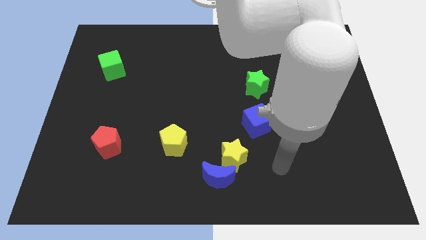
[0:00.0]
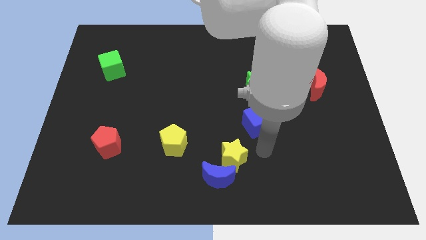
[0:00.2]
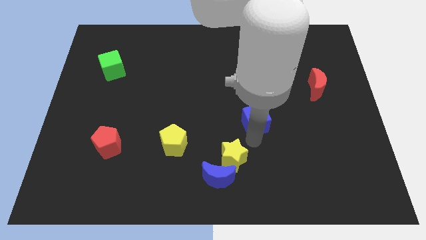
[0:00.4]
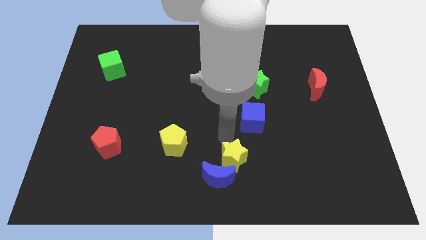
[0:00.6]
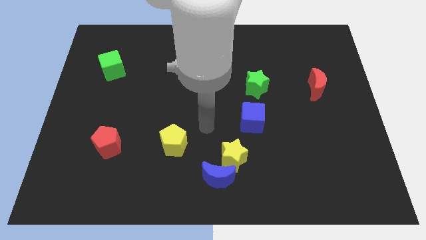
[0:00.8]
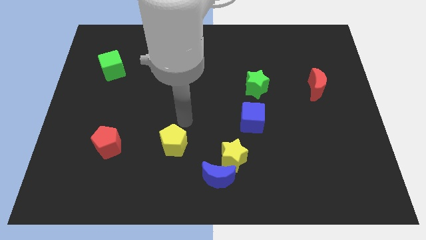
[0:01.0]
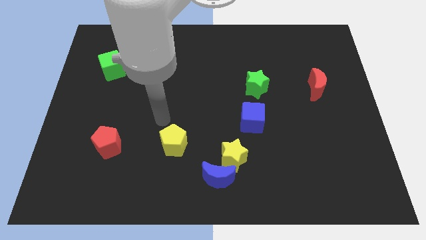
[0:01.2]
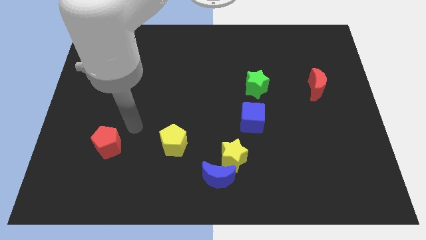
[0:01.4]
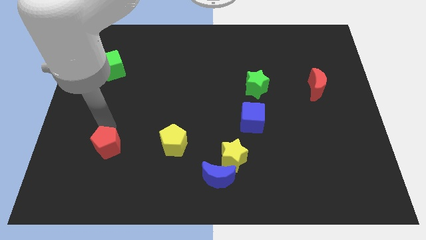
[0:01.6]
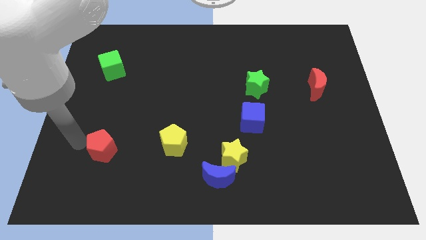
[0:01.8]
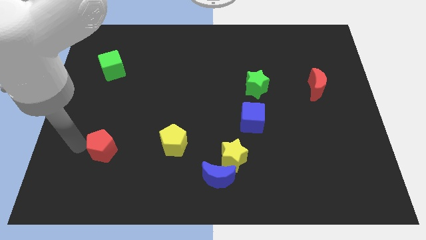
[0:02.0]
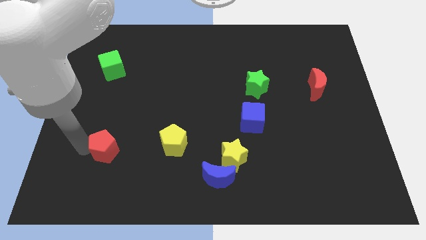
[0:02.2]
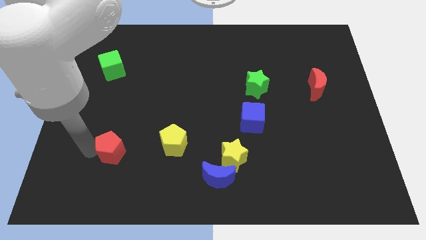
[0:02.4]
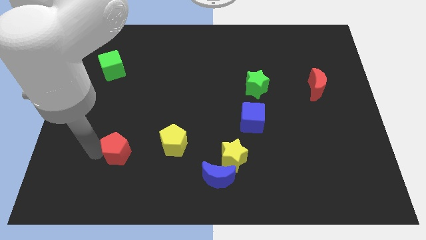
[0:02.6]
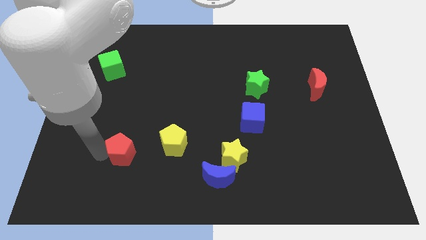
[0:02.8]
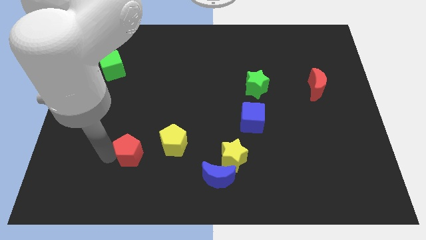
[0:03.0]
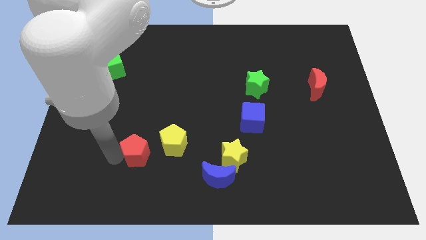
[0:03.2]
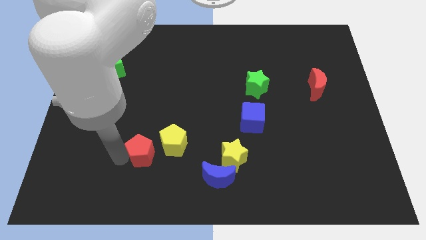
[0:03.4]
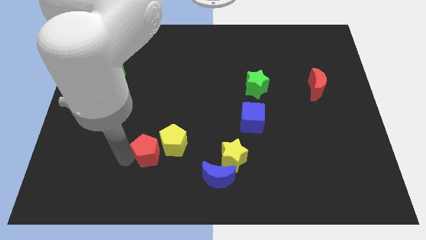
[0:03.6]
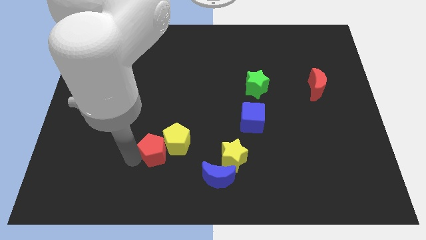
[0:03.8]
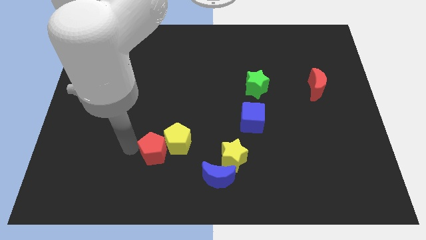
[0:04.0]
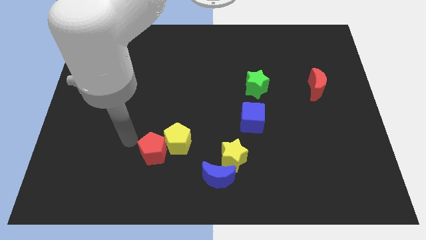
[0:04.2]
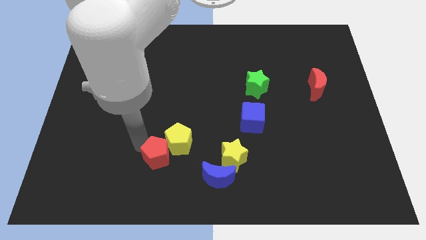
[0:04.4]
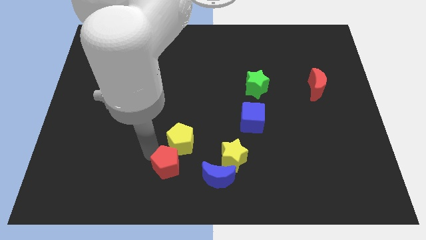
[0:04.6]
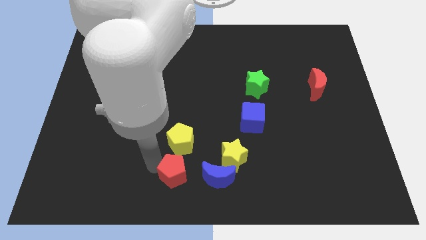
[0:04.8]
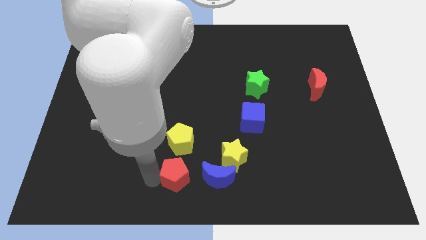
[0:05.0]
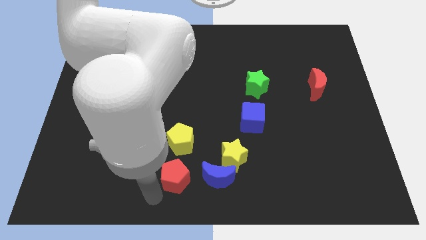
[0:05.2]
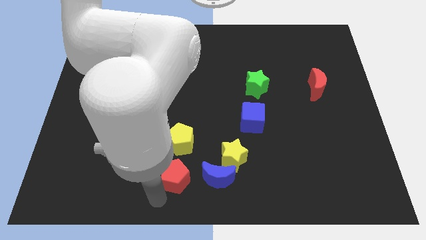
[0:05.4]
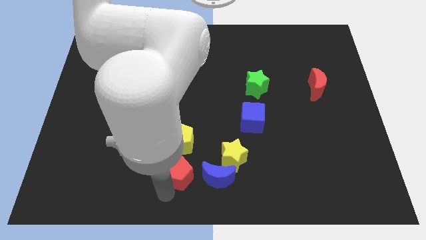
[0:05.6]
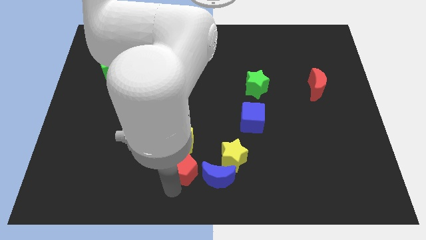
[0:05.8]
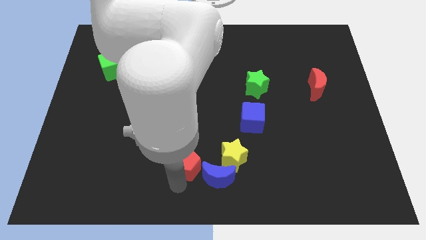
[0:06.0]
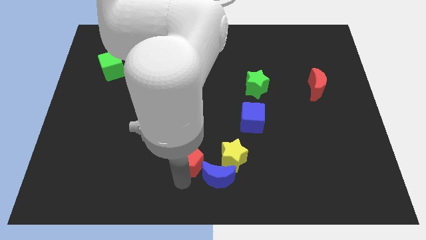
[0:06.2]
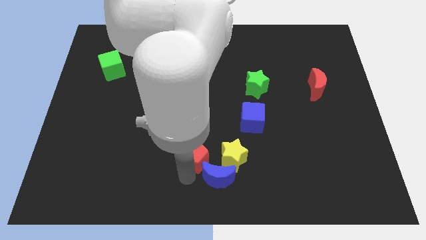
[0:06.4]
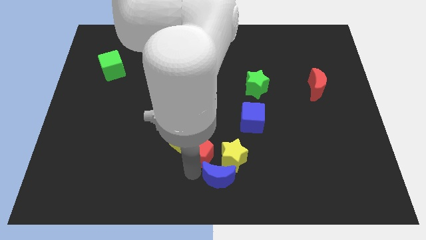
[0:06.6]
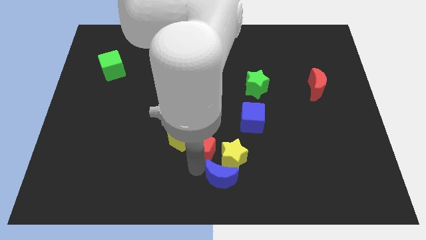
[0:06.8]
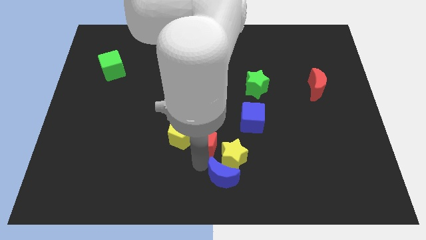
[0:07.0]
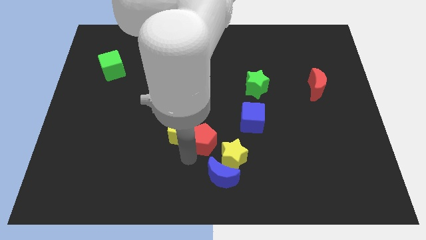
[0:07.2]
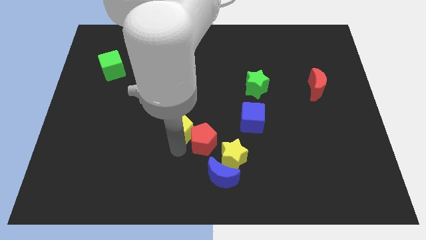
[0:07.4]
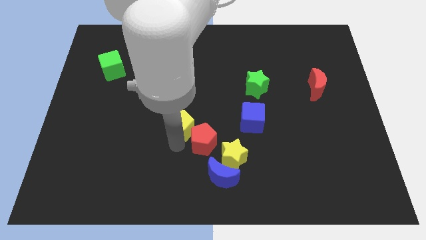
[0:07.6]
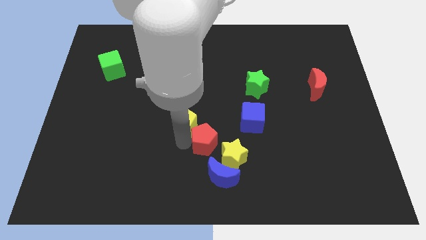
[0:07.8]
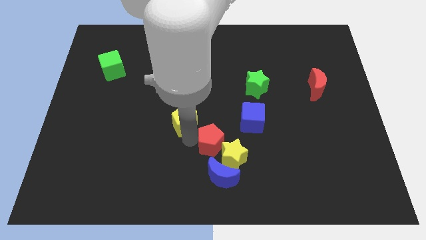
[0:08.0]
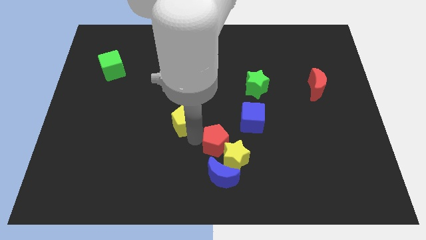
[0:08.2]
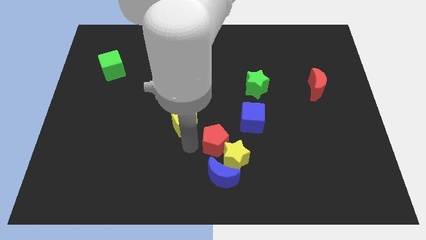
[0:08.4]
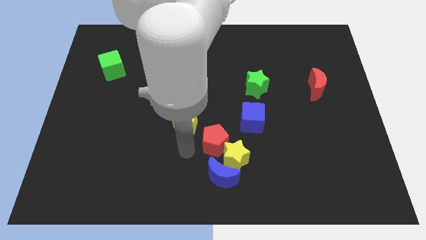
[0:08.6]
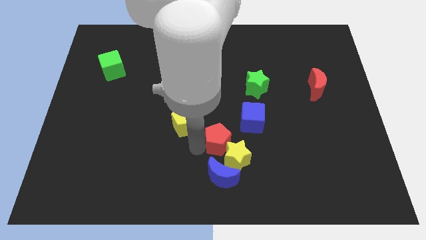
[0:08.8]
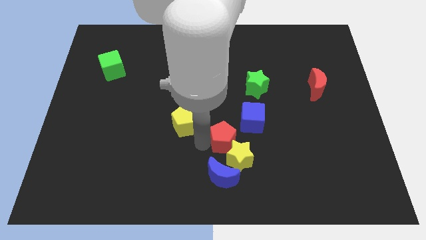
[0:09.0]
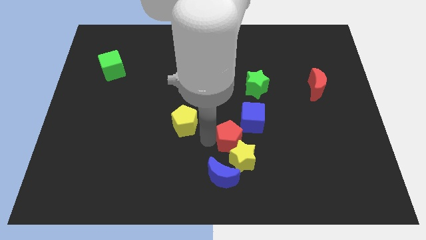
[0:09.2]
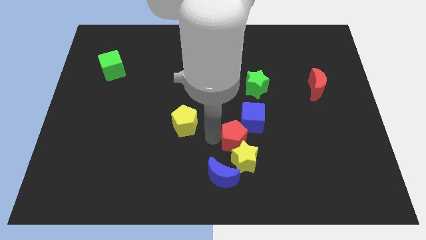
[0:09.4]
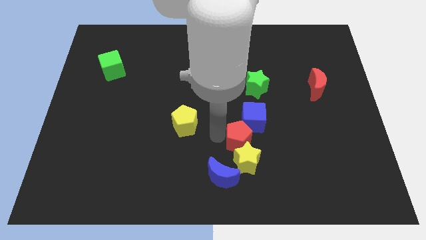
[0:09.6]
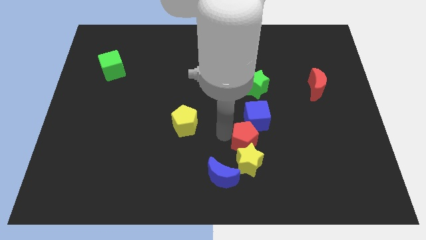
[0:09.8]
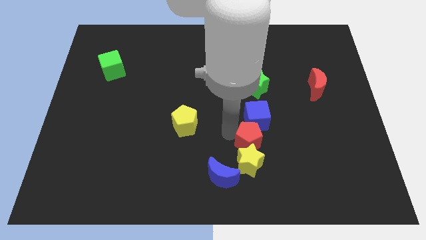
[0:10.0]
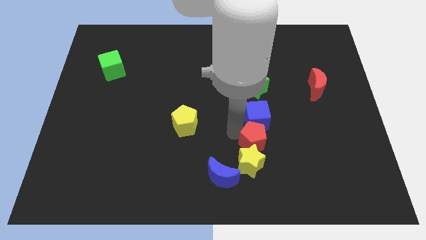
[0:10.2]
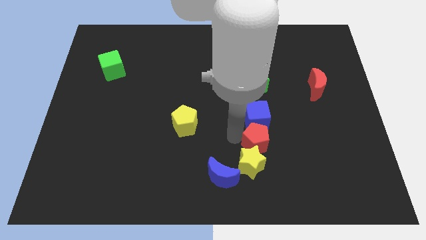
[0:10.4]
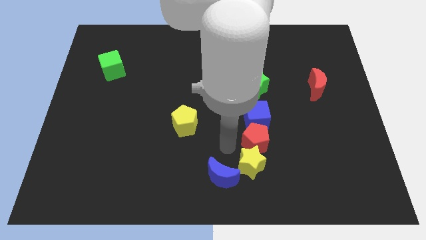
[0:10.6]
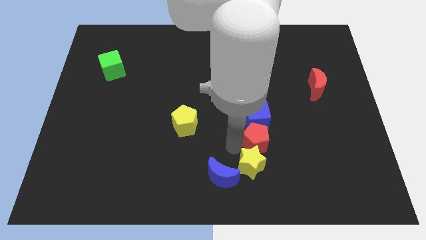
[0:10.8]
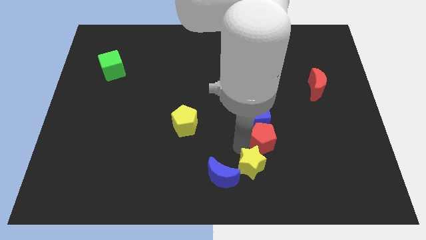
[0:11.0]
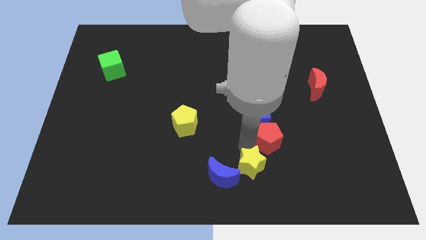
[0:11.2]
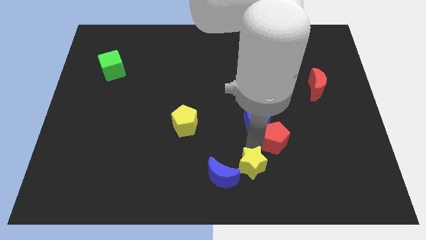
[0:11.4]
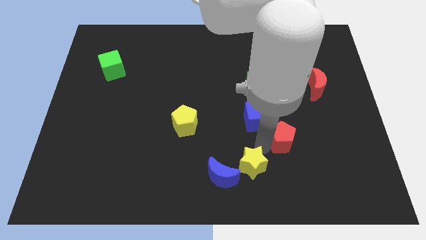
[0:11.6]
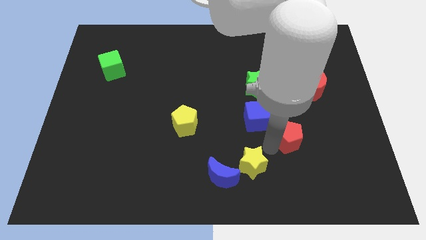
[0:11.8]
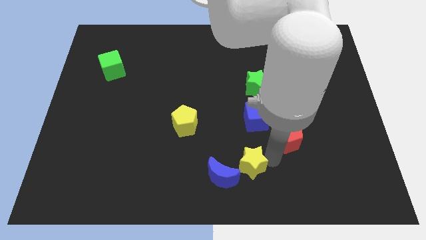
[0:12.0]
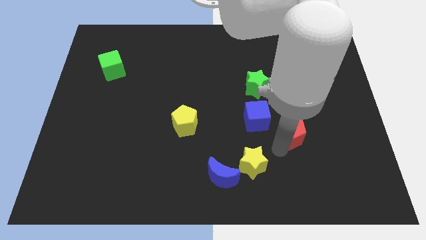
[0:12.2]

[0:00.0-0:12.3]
move the red pentagon right of the blue cube

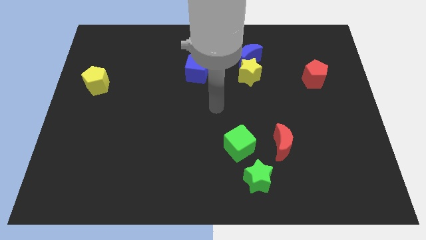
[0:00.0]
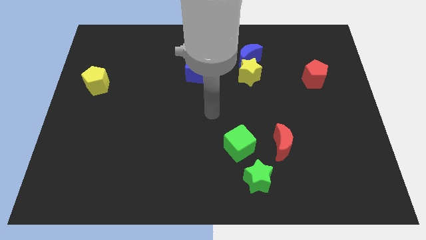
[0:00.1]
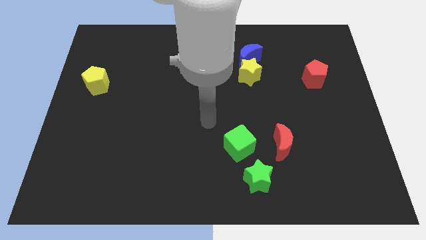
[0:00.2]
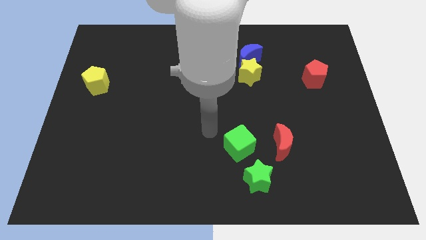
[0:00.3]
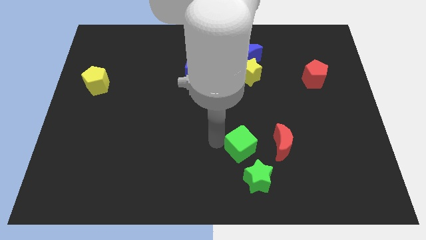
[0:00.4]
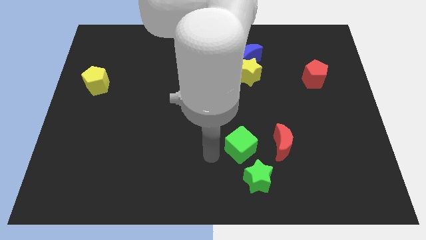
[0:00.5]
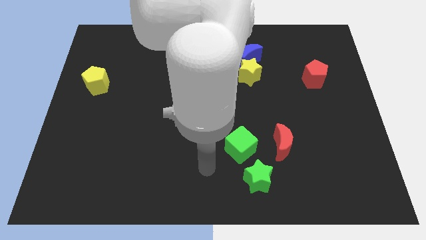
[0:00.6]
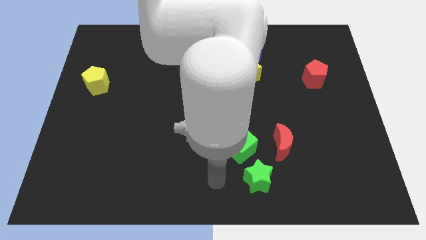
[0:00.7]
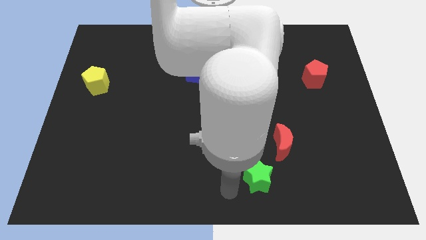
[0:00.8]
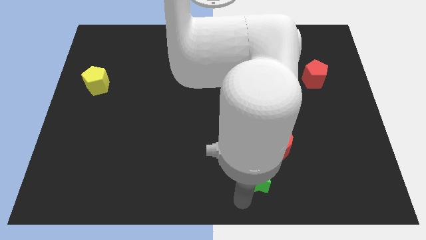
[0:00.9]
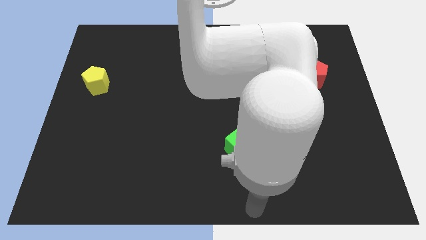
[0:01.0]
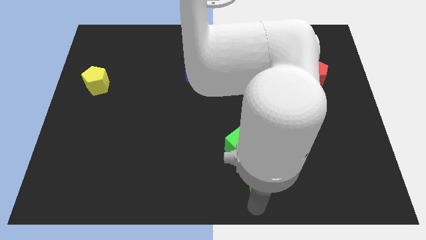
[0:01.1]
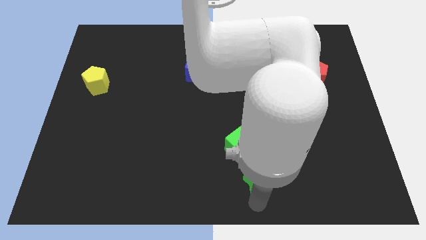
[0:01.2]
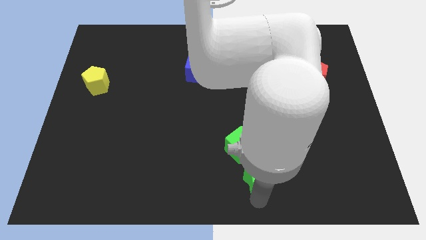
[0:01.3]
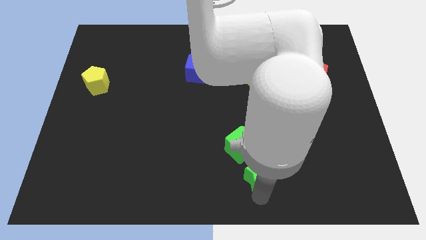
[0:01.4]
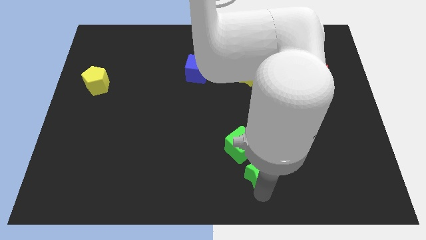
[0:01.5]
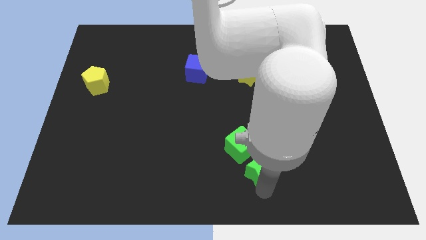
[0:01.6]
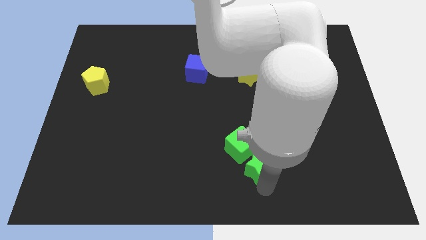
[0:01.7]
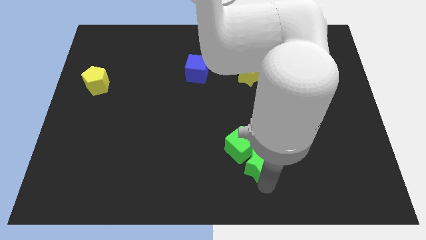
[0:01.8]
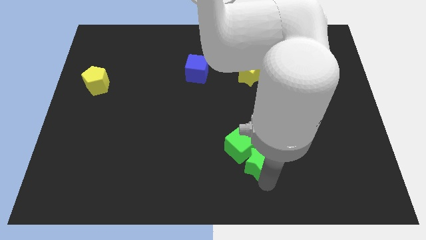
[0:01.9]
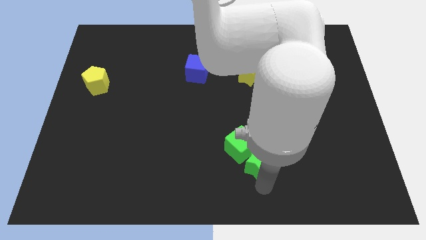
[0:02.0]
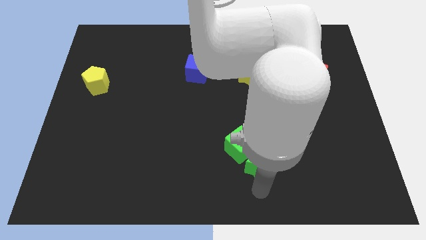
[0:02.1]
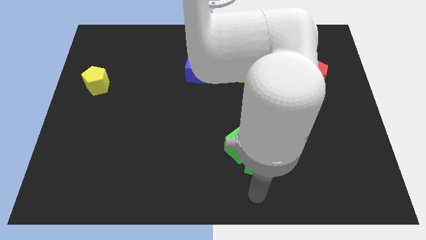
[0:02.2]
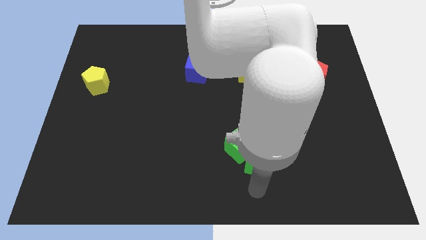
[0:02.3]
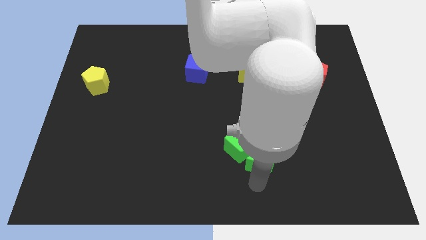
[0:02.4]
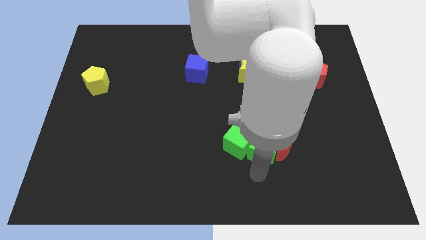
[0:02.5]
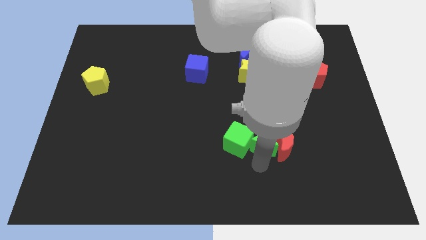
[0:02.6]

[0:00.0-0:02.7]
push the green star to the top right side of the green cube
